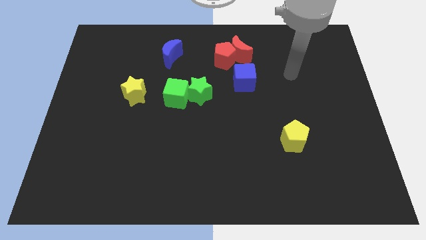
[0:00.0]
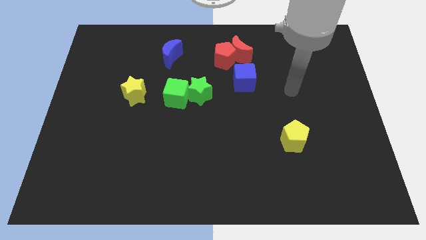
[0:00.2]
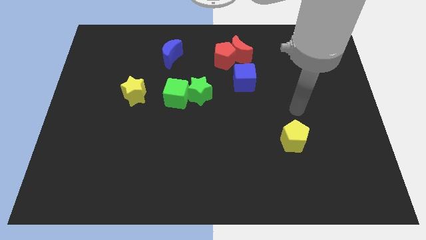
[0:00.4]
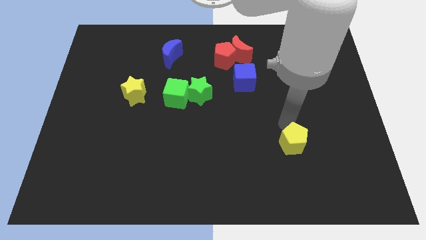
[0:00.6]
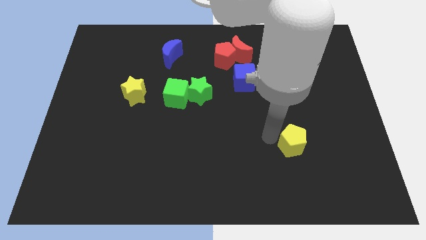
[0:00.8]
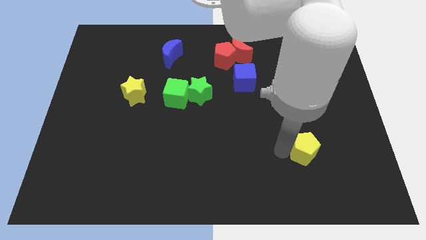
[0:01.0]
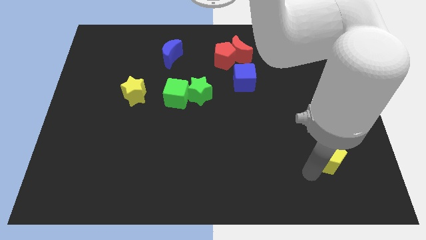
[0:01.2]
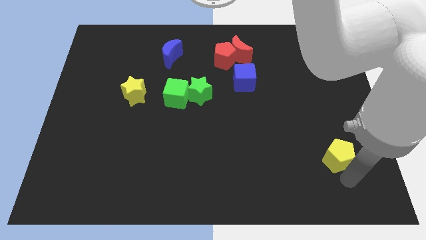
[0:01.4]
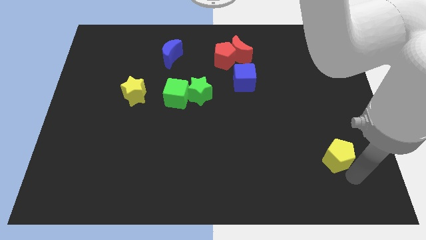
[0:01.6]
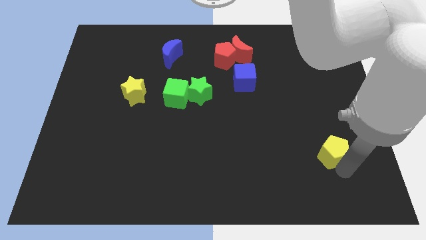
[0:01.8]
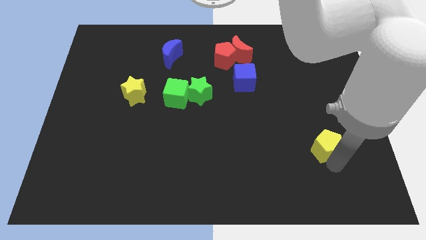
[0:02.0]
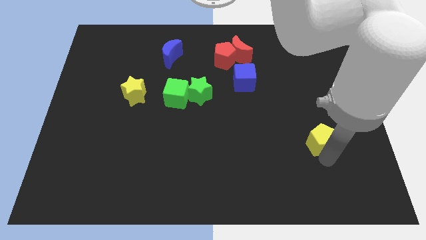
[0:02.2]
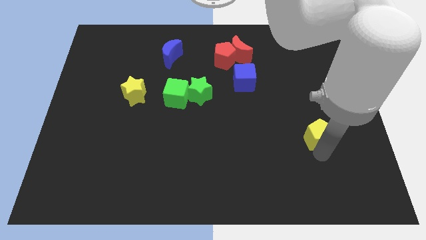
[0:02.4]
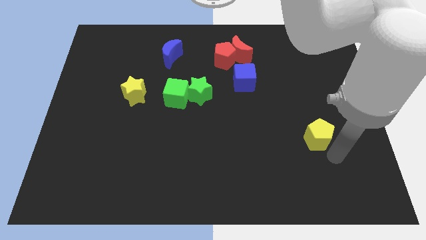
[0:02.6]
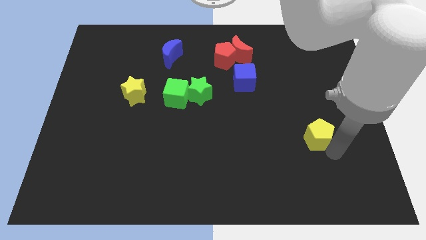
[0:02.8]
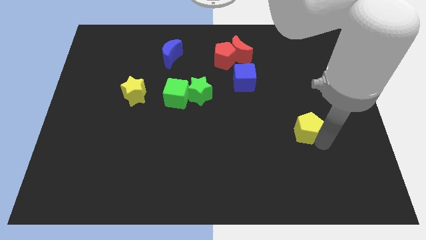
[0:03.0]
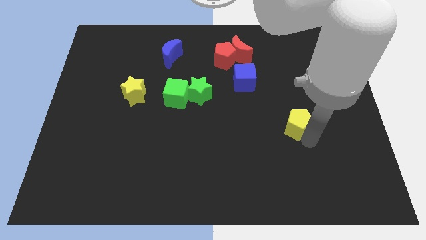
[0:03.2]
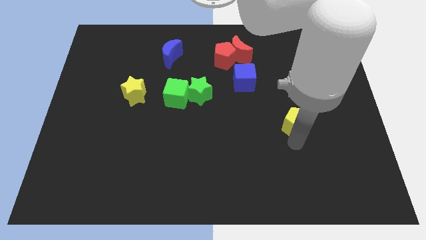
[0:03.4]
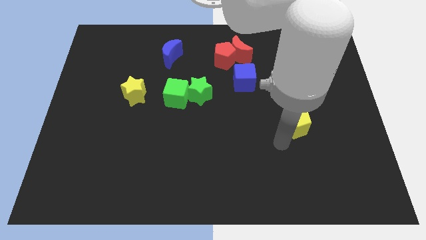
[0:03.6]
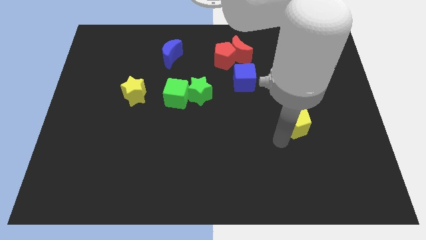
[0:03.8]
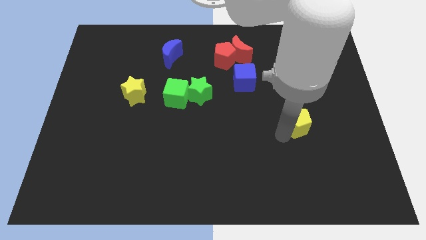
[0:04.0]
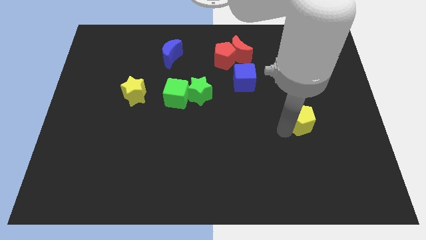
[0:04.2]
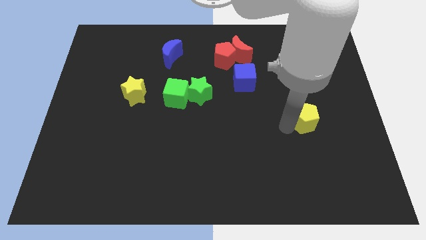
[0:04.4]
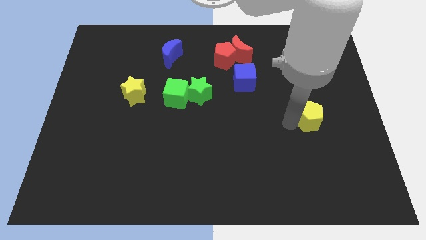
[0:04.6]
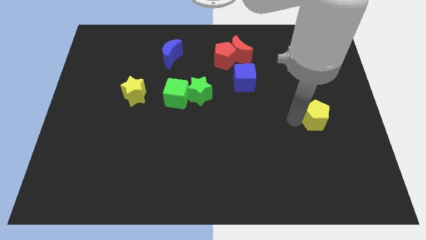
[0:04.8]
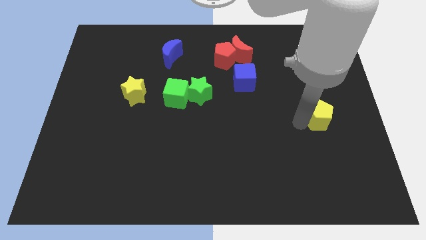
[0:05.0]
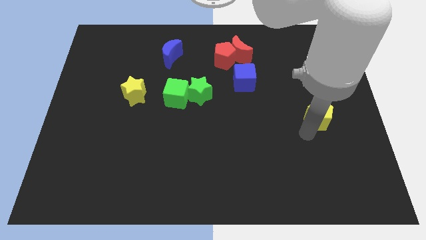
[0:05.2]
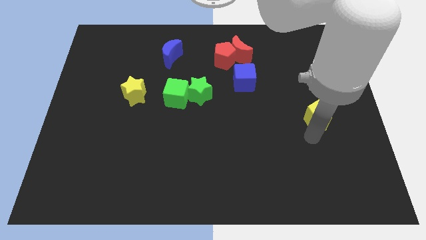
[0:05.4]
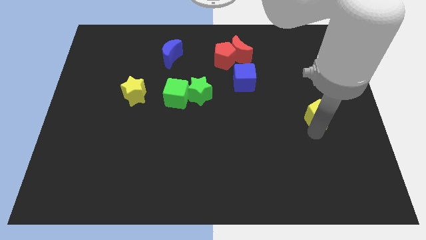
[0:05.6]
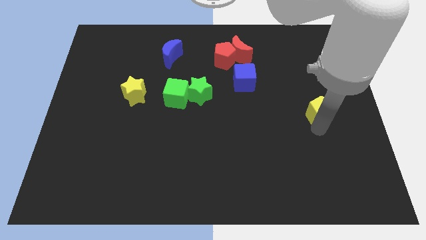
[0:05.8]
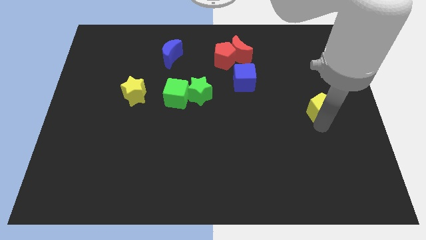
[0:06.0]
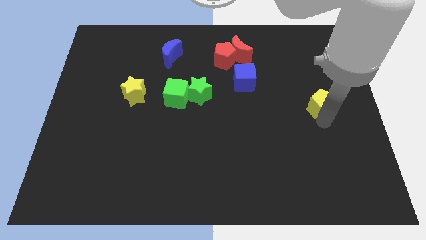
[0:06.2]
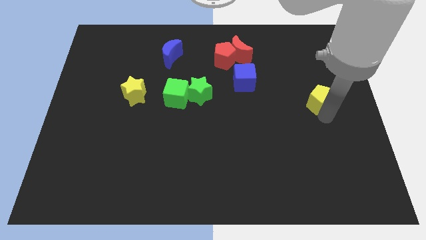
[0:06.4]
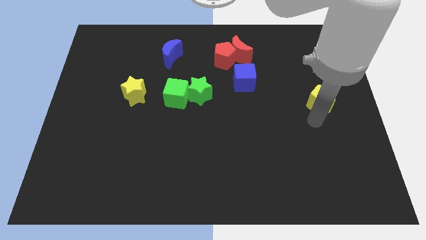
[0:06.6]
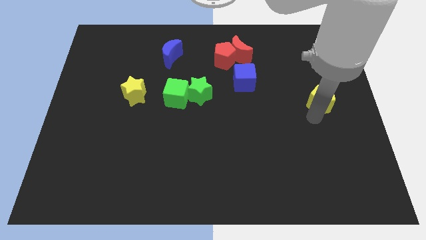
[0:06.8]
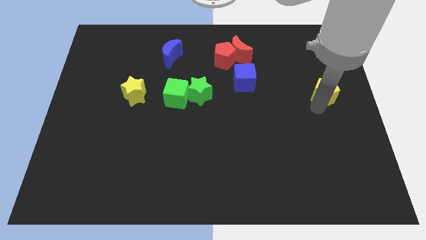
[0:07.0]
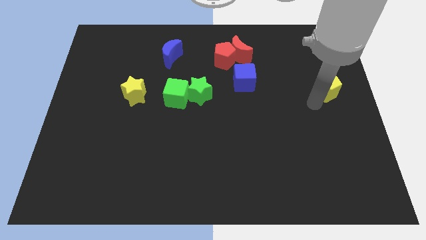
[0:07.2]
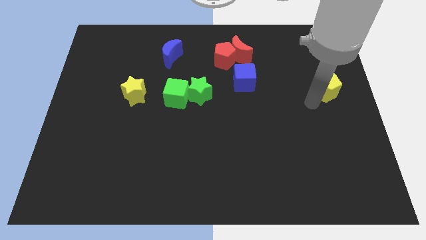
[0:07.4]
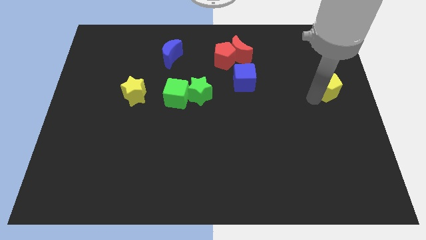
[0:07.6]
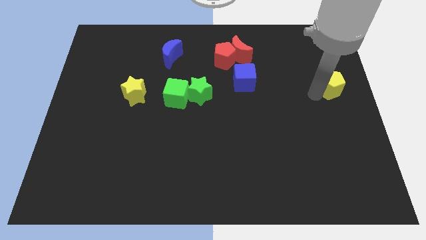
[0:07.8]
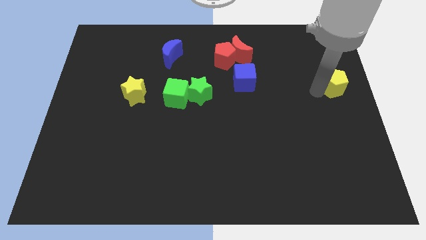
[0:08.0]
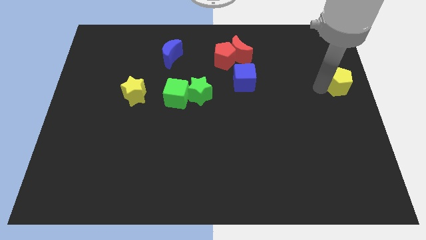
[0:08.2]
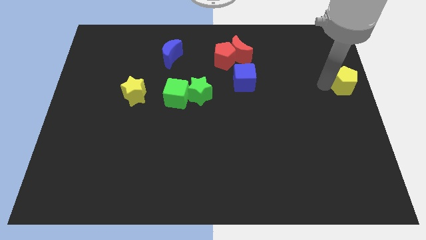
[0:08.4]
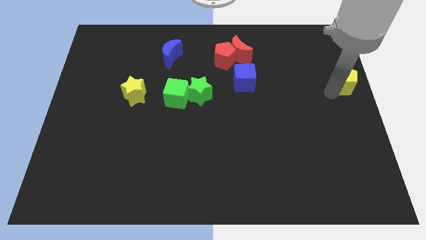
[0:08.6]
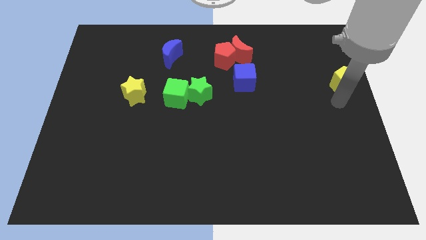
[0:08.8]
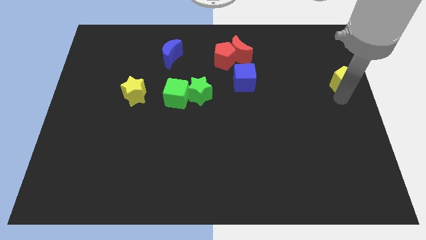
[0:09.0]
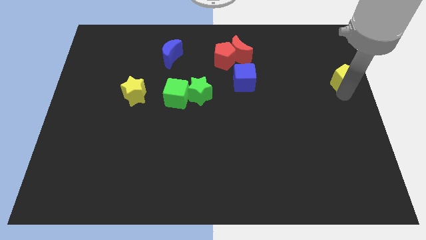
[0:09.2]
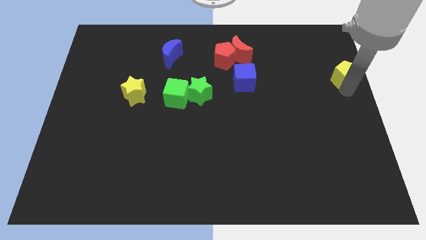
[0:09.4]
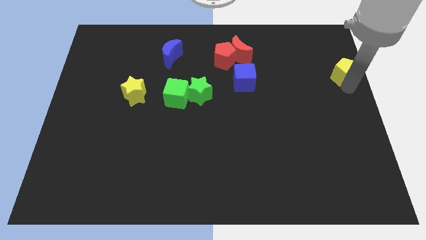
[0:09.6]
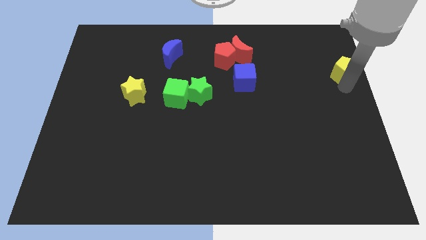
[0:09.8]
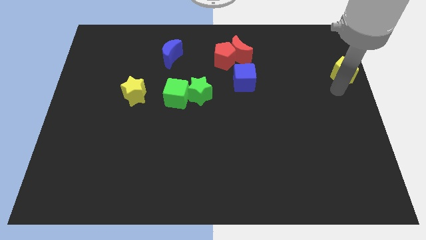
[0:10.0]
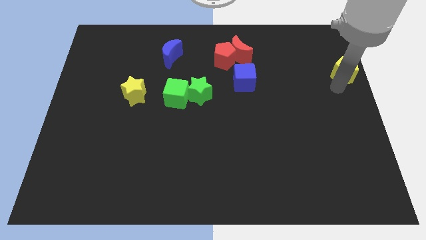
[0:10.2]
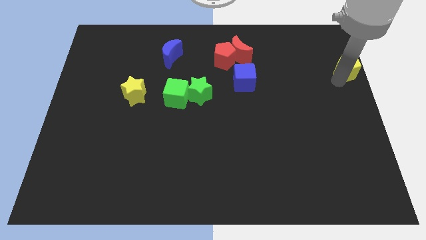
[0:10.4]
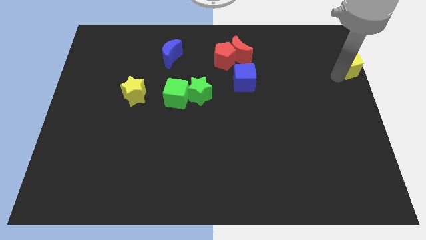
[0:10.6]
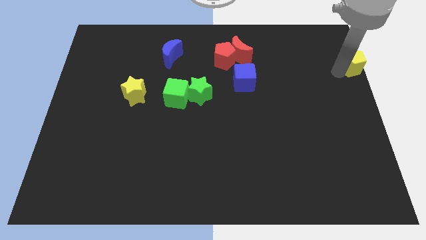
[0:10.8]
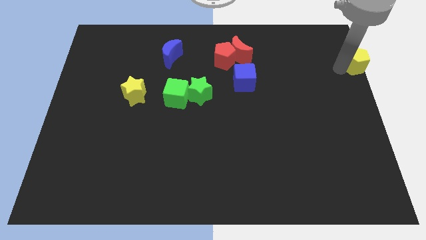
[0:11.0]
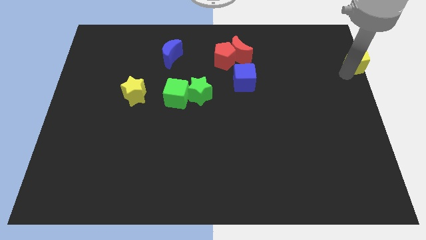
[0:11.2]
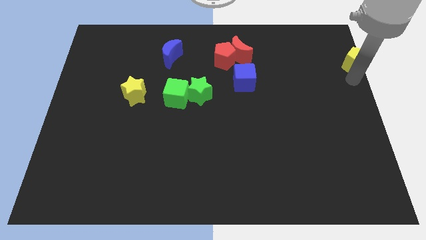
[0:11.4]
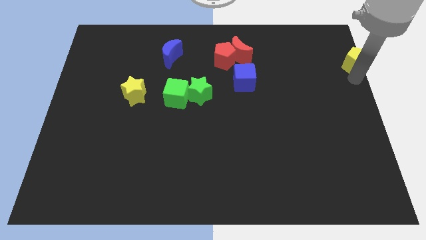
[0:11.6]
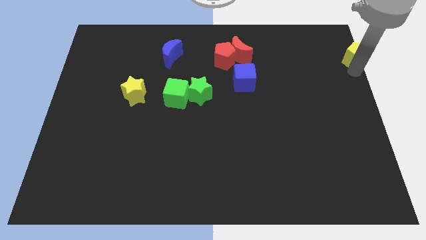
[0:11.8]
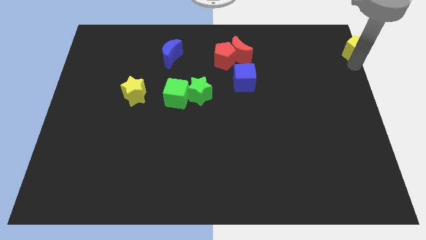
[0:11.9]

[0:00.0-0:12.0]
slide the yellow pentagon to the upper right corner

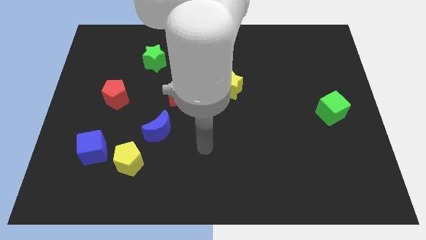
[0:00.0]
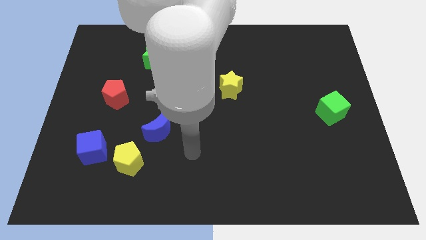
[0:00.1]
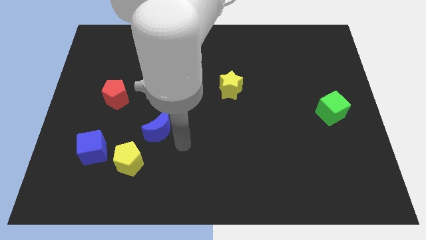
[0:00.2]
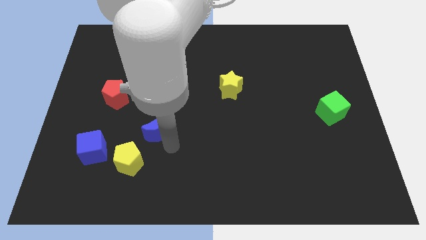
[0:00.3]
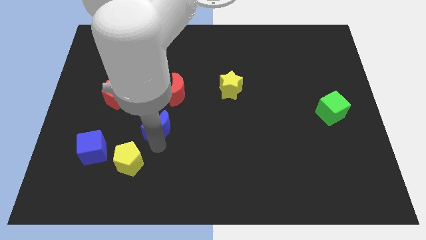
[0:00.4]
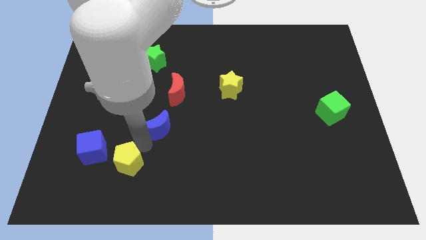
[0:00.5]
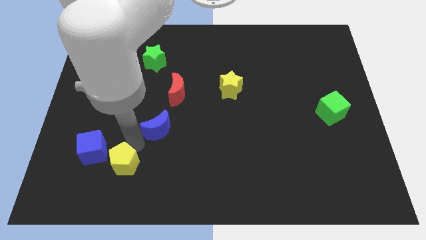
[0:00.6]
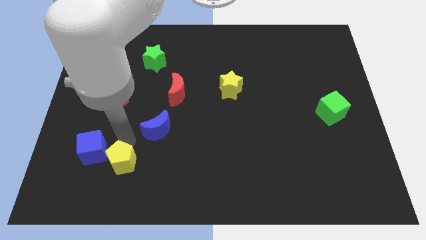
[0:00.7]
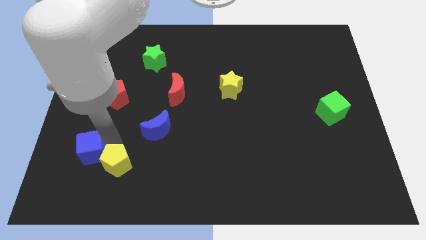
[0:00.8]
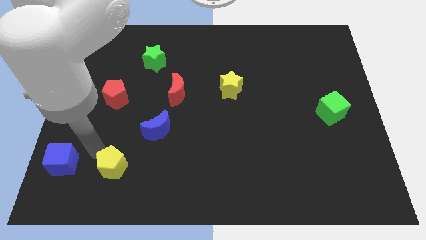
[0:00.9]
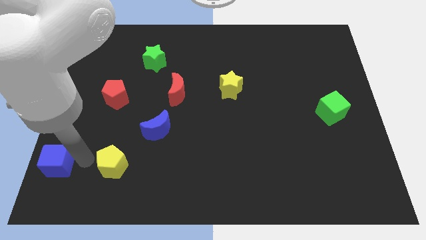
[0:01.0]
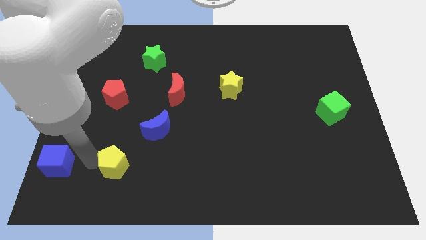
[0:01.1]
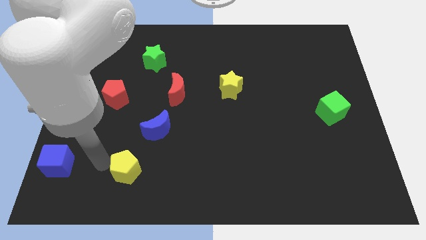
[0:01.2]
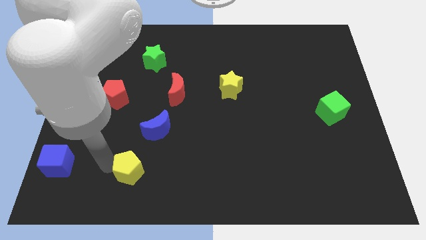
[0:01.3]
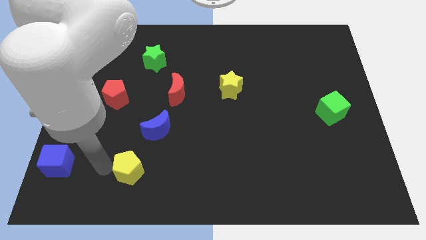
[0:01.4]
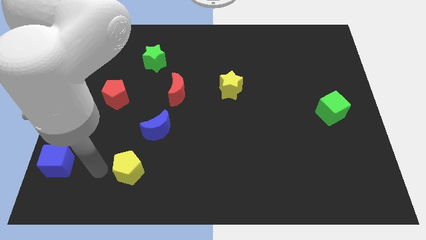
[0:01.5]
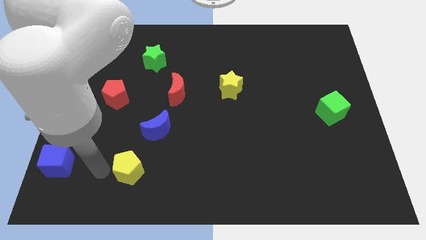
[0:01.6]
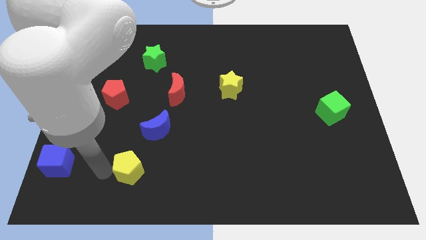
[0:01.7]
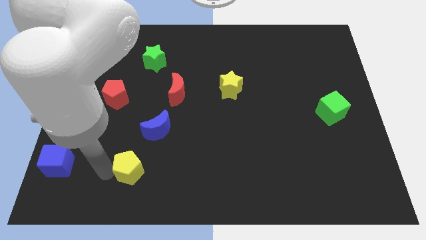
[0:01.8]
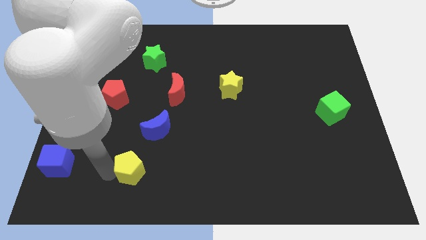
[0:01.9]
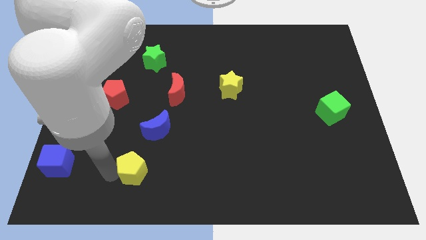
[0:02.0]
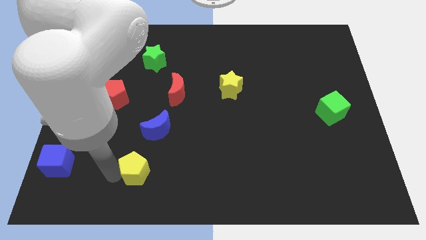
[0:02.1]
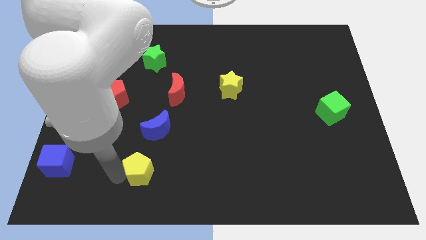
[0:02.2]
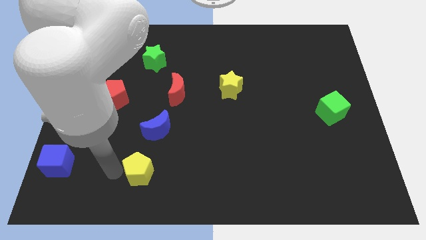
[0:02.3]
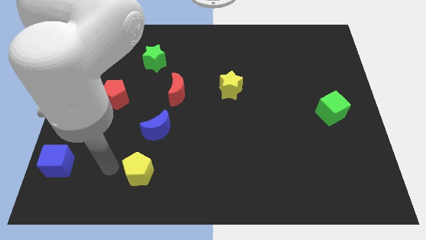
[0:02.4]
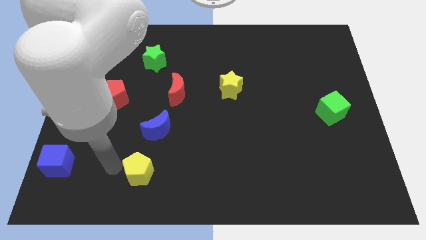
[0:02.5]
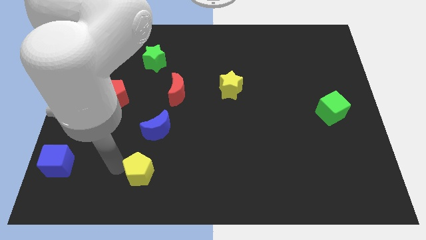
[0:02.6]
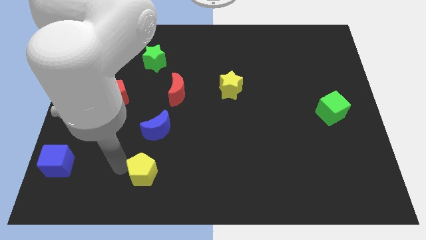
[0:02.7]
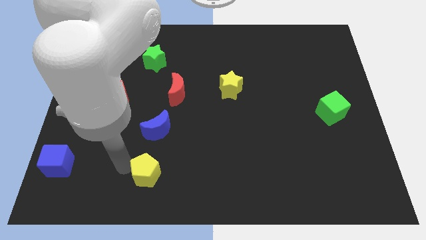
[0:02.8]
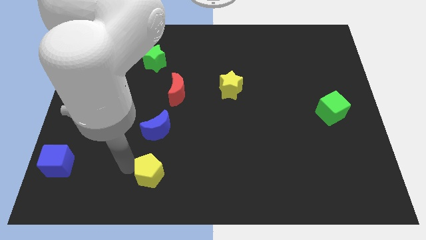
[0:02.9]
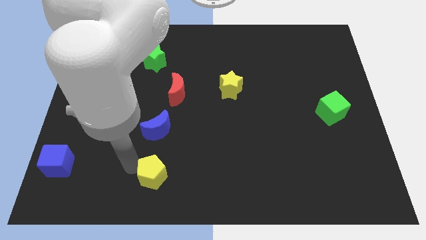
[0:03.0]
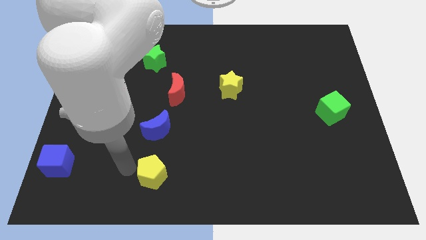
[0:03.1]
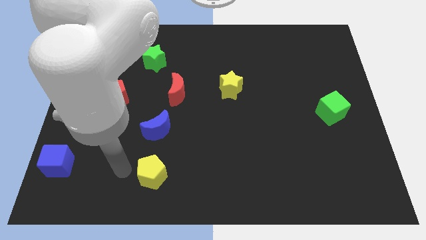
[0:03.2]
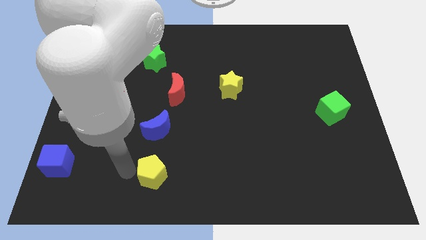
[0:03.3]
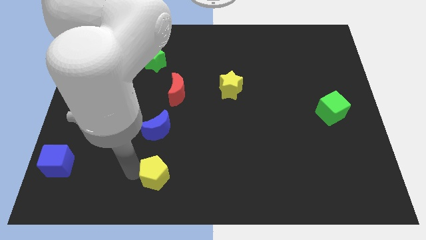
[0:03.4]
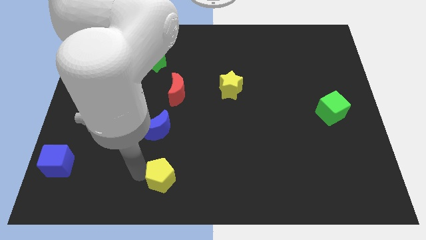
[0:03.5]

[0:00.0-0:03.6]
put the yellow pentagon to the bottom
